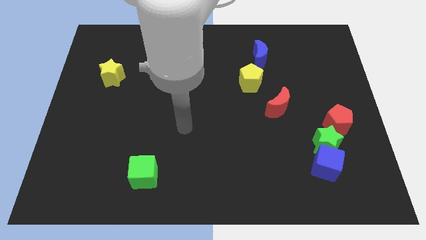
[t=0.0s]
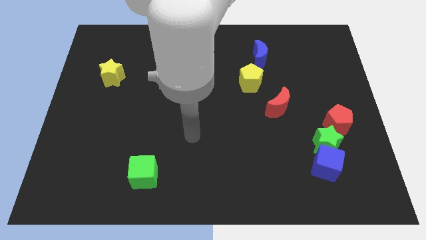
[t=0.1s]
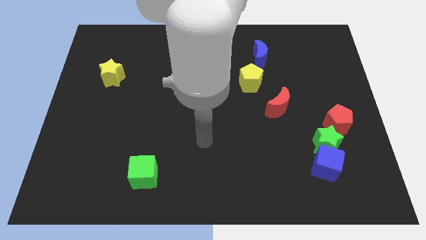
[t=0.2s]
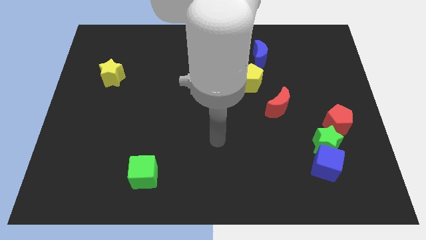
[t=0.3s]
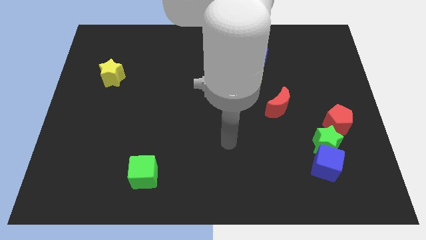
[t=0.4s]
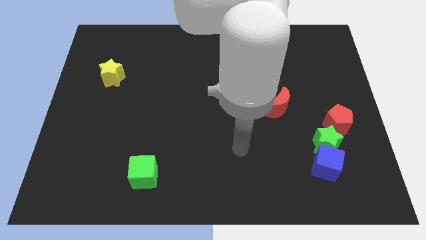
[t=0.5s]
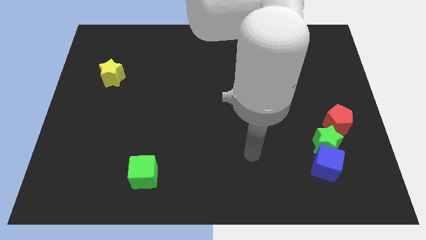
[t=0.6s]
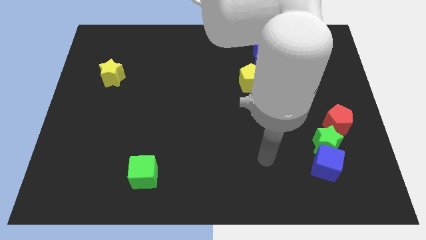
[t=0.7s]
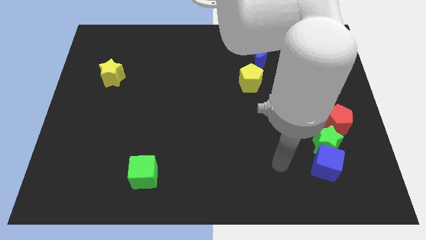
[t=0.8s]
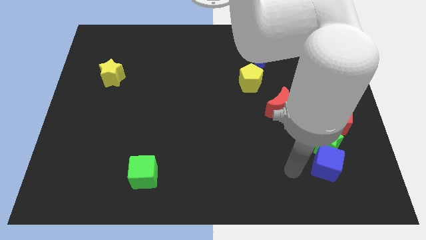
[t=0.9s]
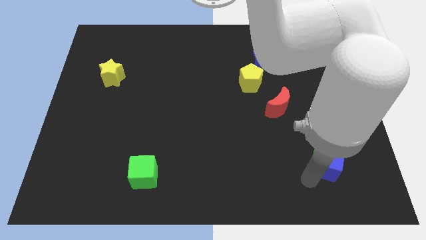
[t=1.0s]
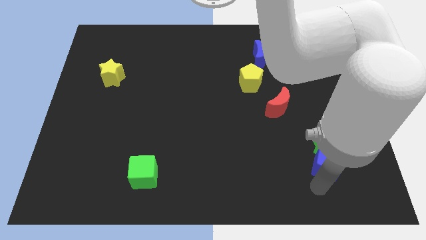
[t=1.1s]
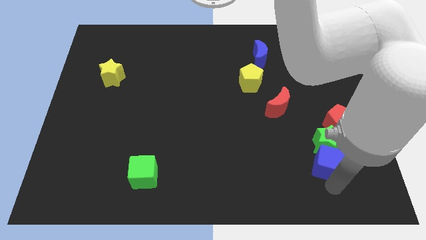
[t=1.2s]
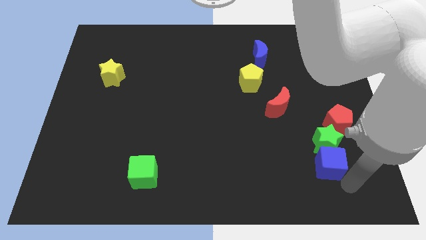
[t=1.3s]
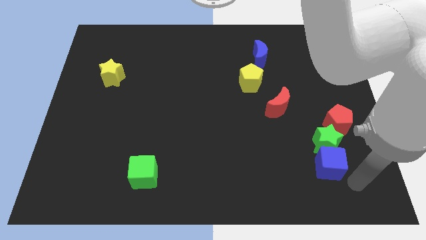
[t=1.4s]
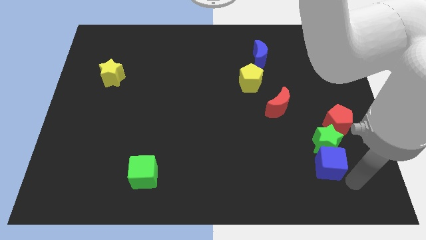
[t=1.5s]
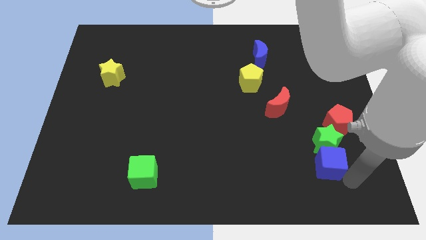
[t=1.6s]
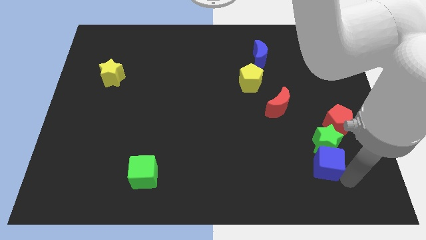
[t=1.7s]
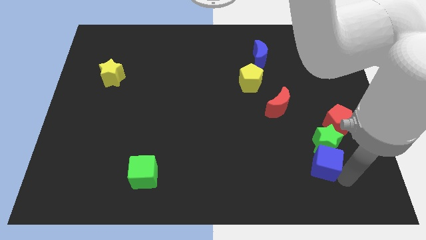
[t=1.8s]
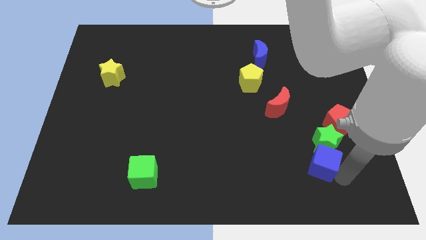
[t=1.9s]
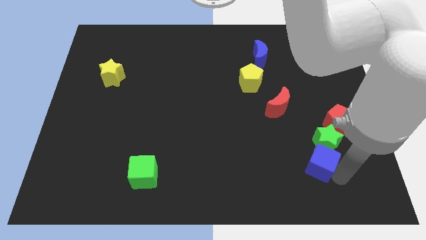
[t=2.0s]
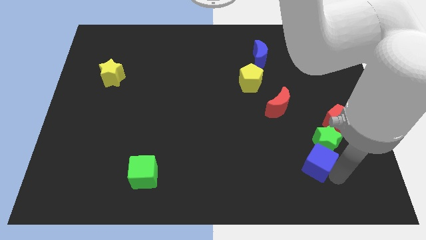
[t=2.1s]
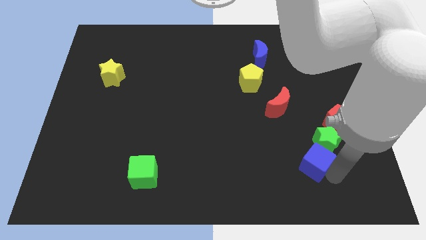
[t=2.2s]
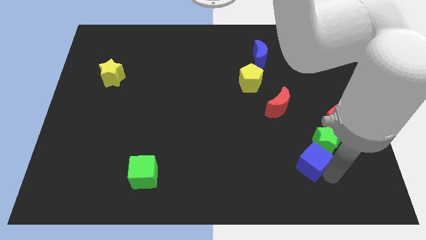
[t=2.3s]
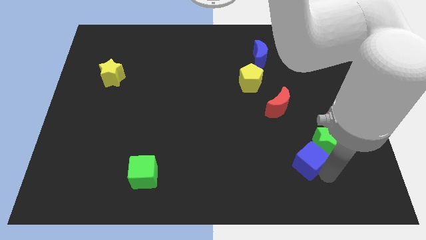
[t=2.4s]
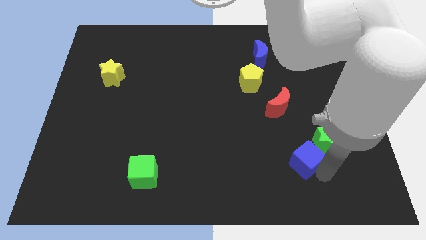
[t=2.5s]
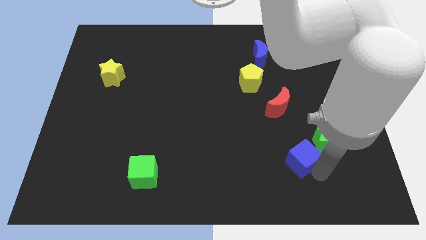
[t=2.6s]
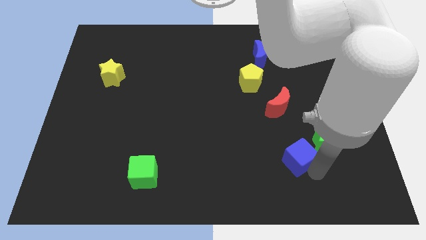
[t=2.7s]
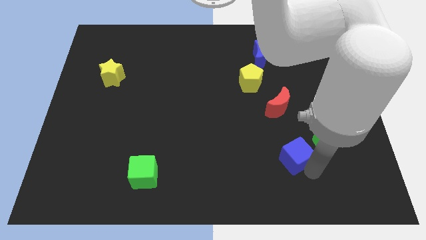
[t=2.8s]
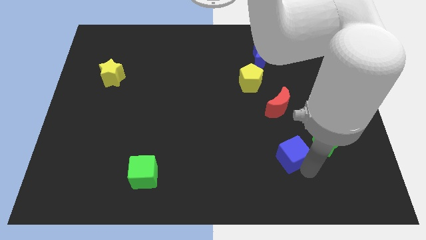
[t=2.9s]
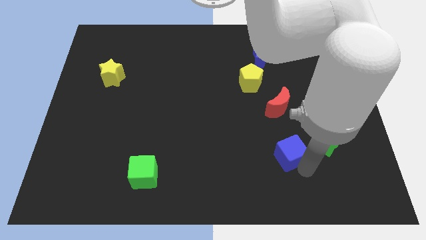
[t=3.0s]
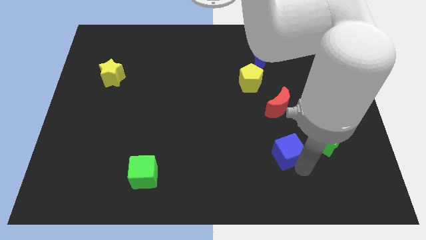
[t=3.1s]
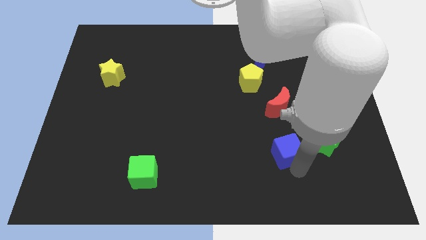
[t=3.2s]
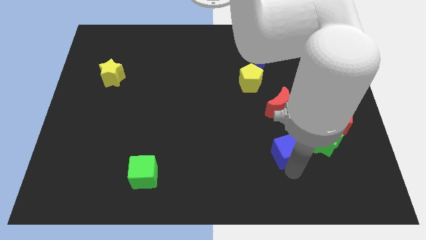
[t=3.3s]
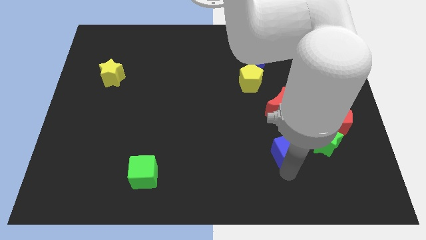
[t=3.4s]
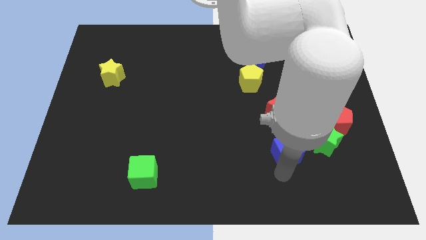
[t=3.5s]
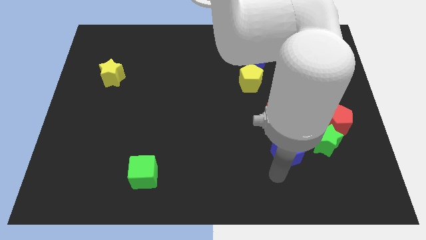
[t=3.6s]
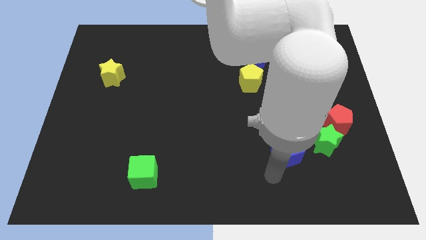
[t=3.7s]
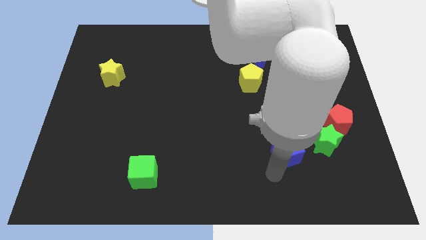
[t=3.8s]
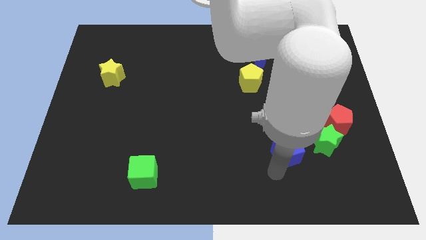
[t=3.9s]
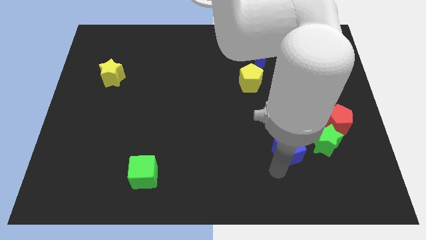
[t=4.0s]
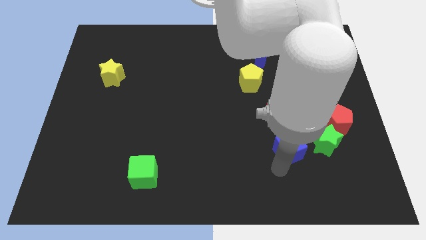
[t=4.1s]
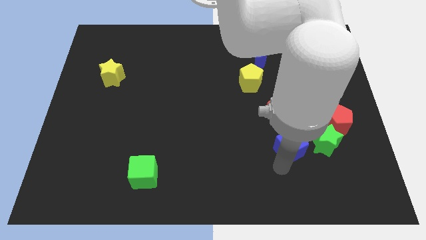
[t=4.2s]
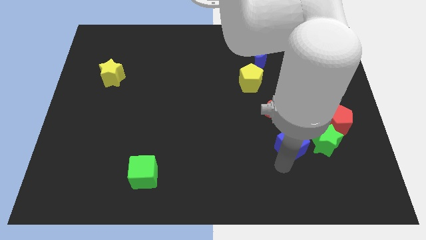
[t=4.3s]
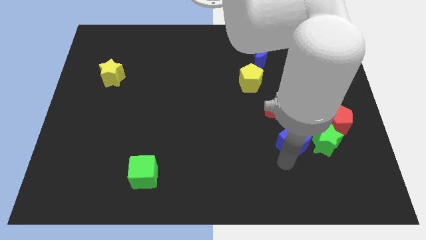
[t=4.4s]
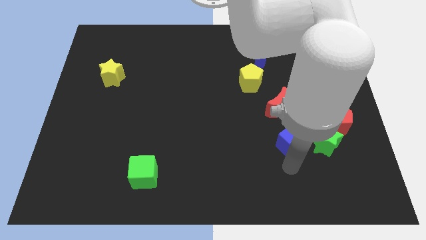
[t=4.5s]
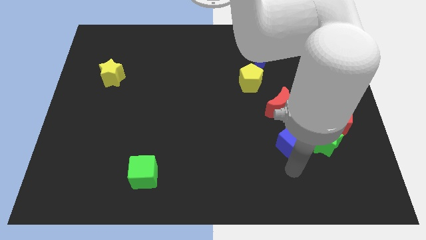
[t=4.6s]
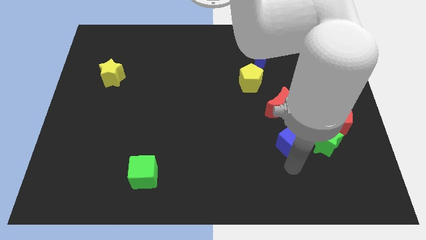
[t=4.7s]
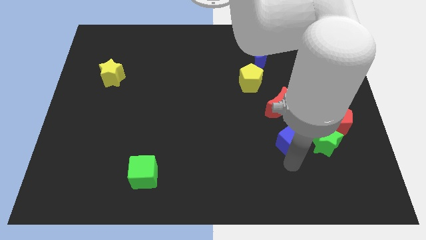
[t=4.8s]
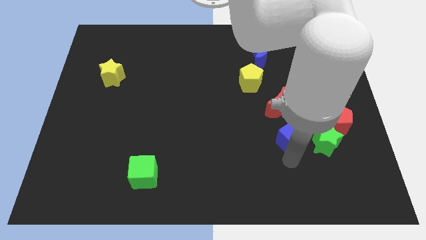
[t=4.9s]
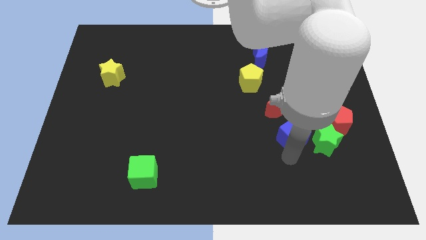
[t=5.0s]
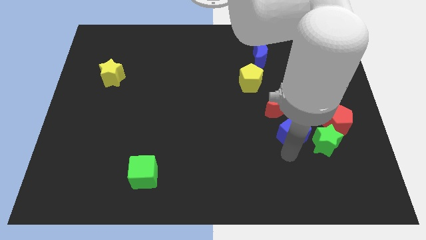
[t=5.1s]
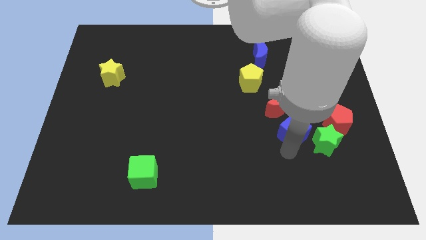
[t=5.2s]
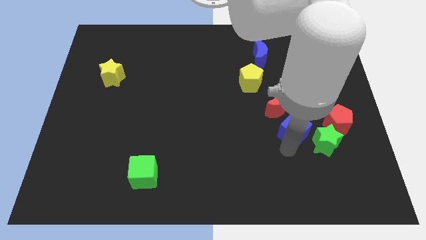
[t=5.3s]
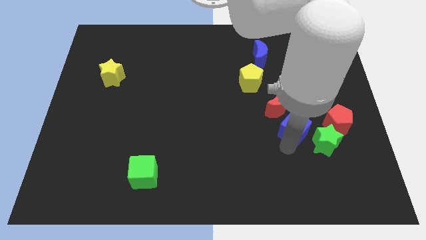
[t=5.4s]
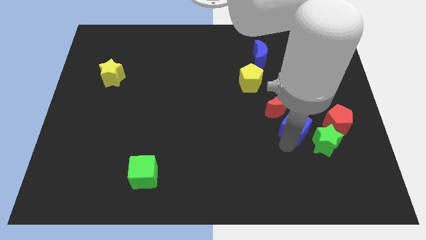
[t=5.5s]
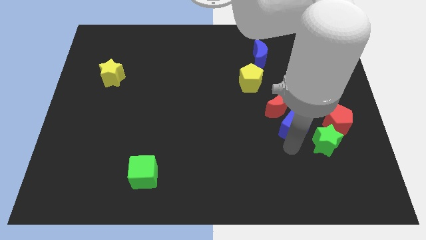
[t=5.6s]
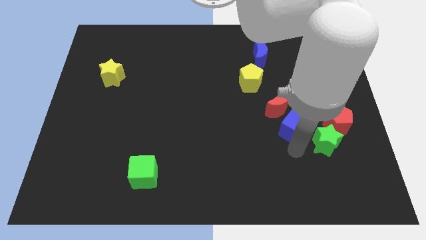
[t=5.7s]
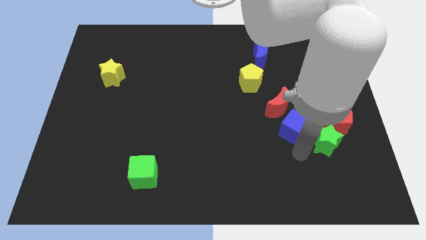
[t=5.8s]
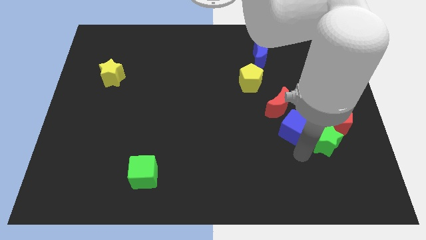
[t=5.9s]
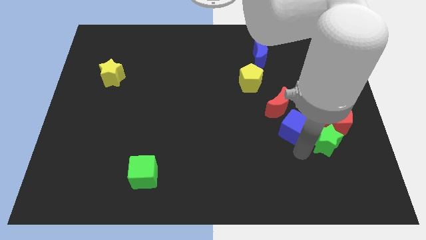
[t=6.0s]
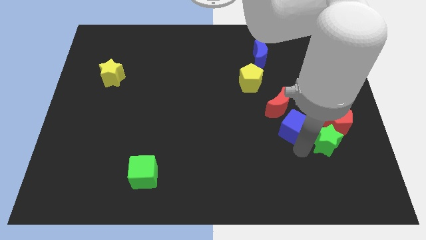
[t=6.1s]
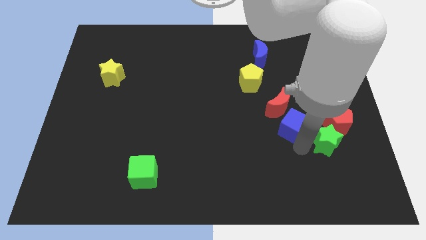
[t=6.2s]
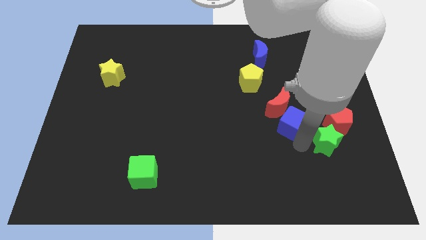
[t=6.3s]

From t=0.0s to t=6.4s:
slide the blue cube to the red moon

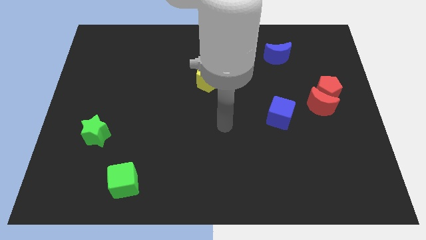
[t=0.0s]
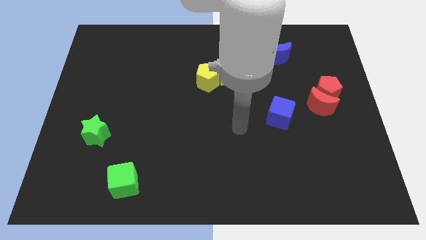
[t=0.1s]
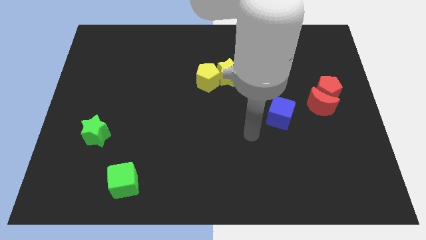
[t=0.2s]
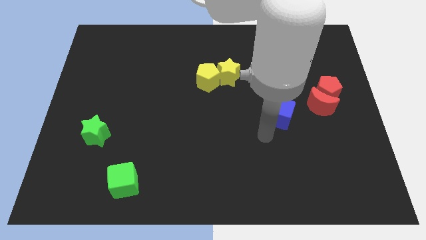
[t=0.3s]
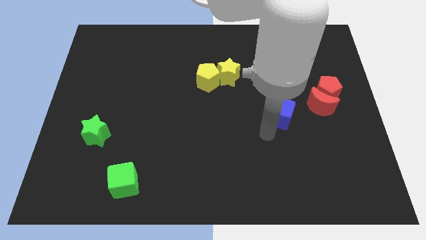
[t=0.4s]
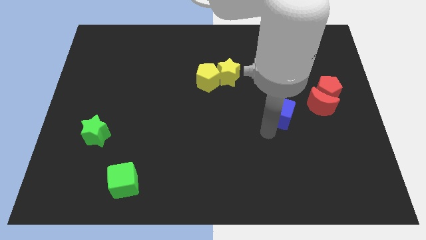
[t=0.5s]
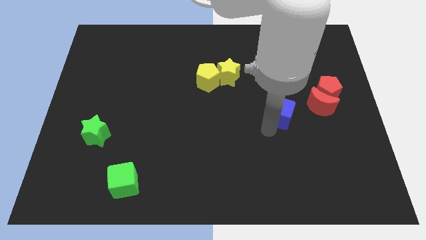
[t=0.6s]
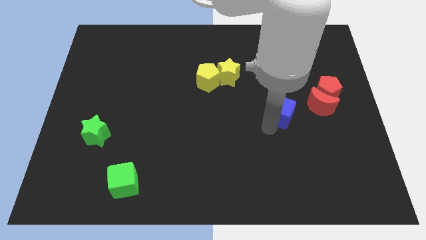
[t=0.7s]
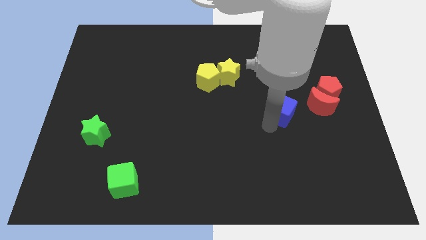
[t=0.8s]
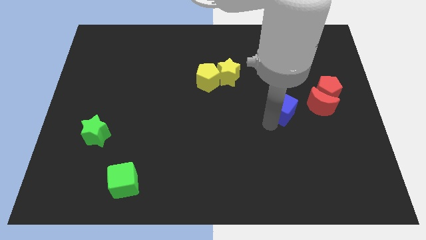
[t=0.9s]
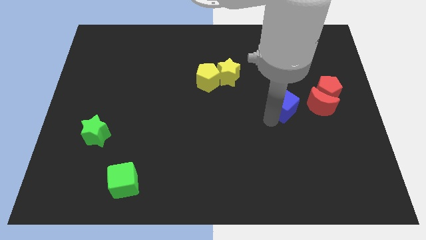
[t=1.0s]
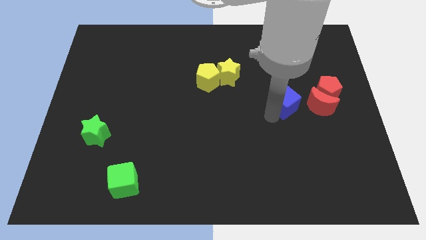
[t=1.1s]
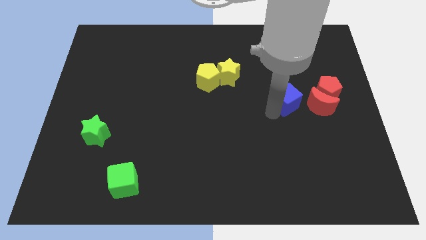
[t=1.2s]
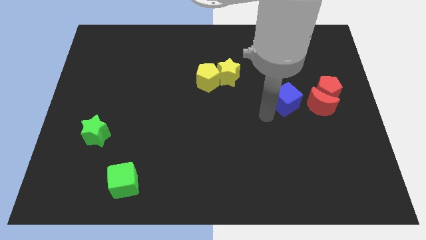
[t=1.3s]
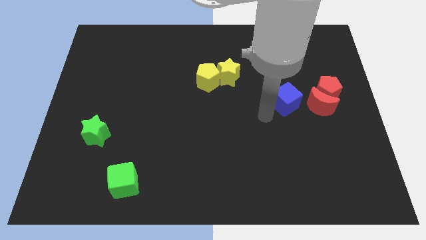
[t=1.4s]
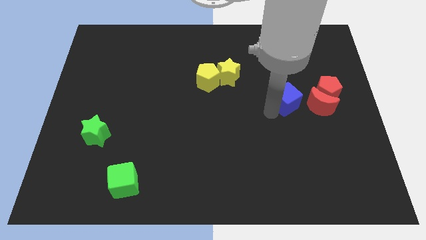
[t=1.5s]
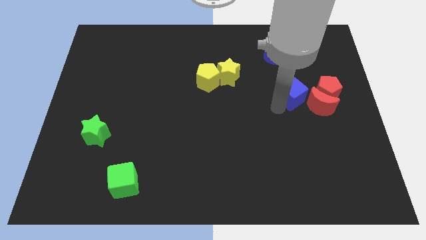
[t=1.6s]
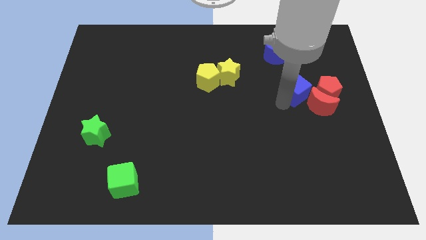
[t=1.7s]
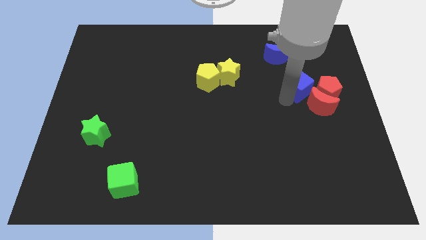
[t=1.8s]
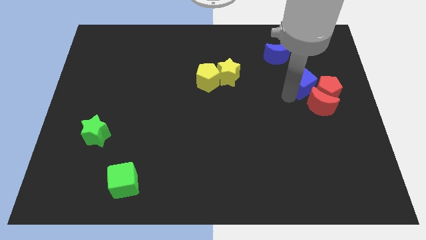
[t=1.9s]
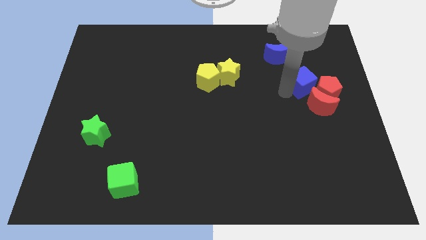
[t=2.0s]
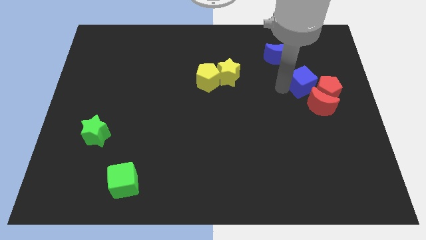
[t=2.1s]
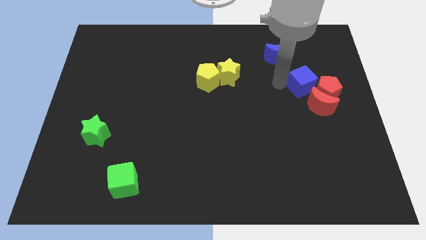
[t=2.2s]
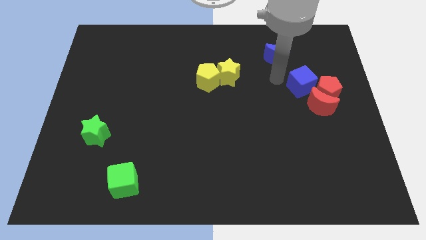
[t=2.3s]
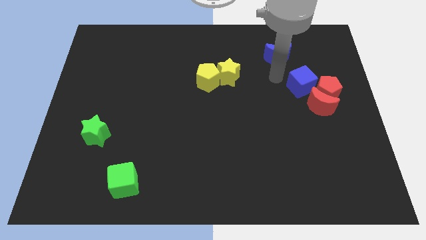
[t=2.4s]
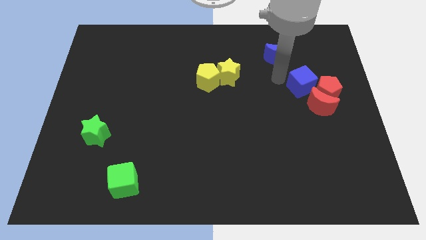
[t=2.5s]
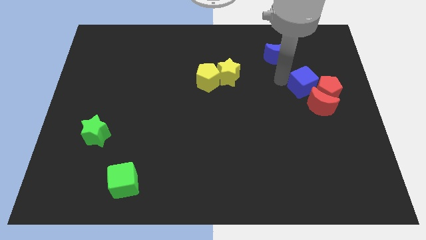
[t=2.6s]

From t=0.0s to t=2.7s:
put the blue cube to the red pentagon
